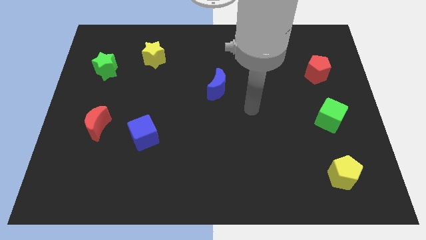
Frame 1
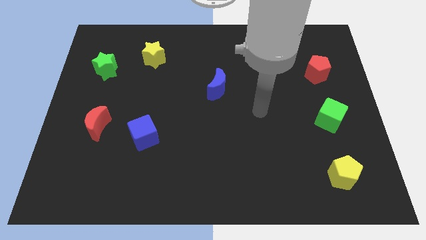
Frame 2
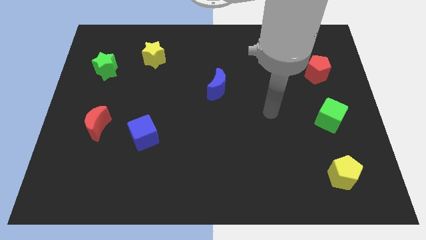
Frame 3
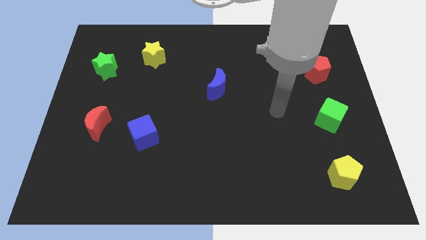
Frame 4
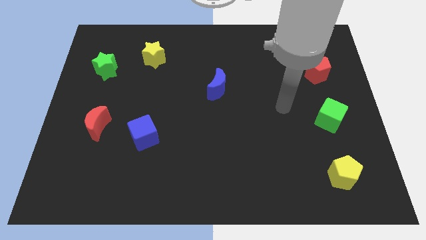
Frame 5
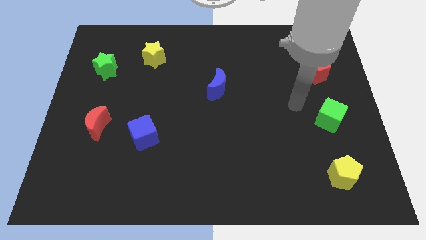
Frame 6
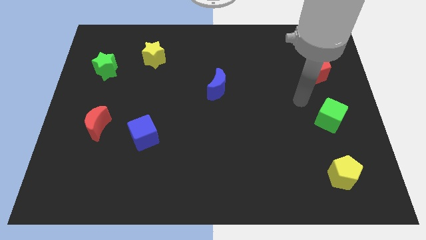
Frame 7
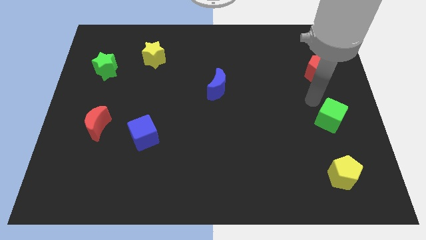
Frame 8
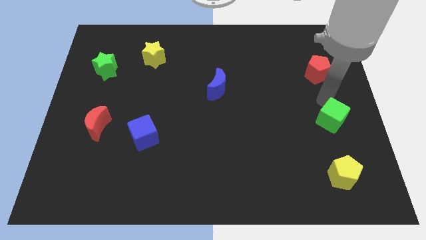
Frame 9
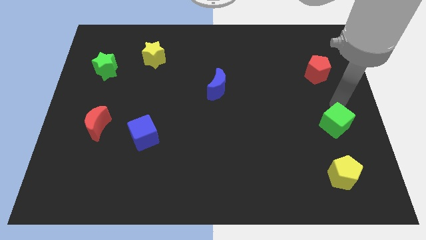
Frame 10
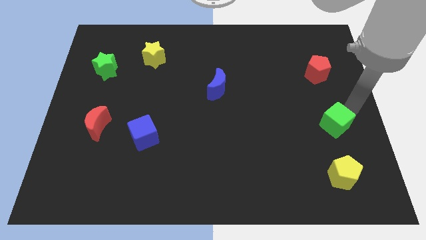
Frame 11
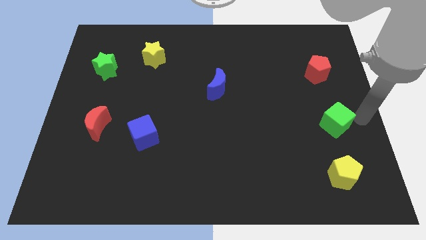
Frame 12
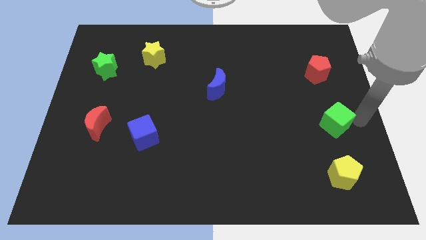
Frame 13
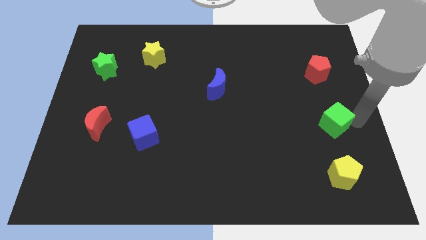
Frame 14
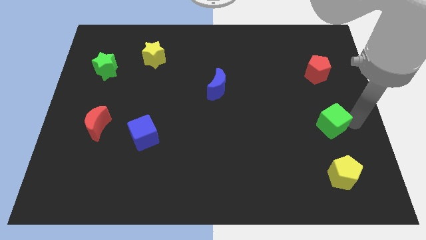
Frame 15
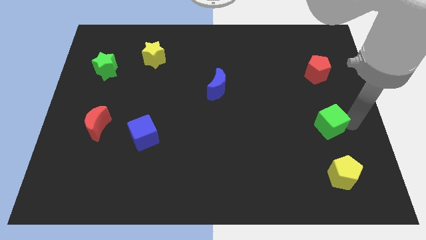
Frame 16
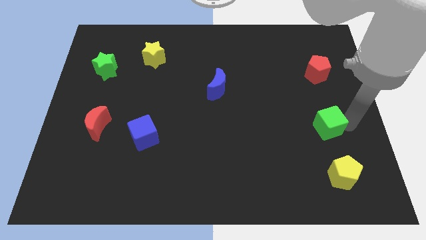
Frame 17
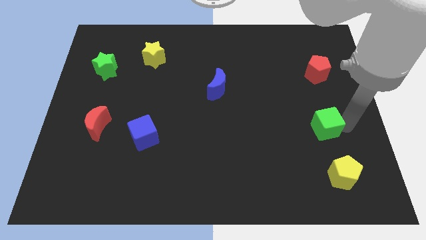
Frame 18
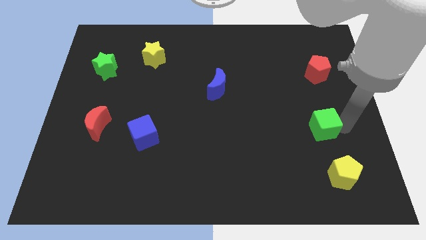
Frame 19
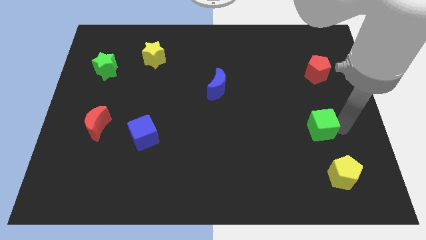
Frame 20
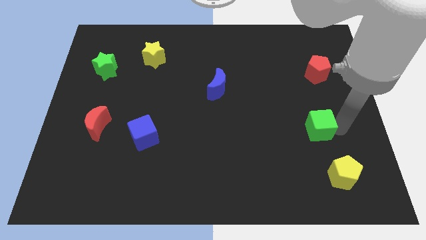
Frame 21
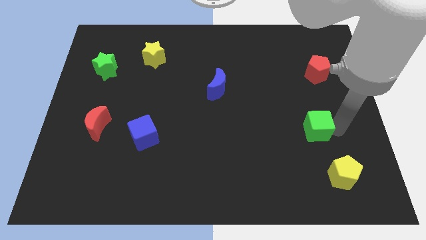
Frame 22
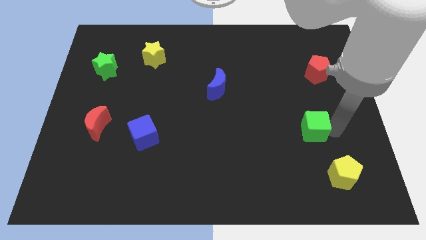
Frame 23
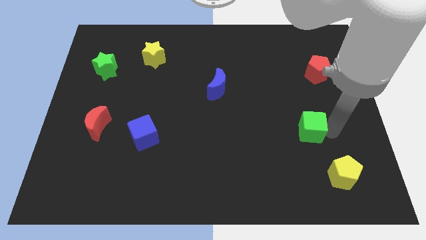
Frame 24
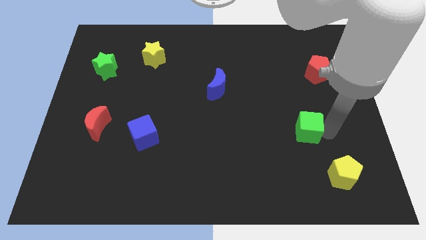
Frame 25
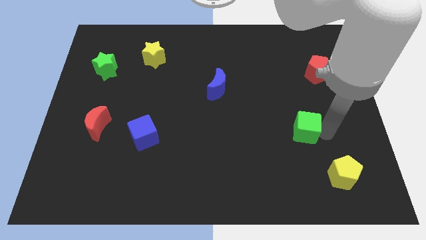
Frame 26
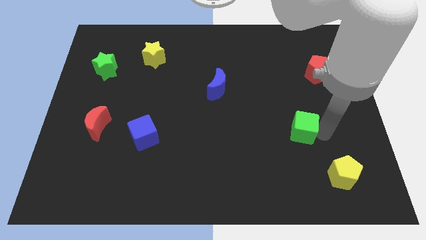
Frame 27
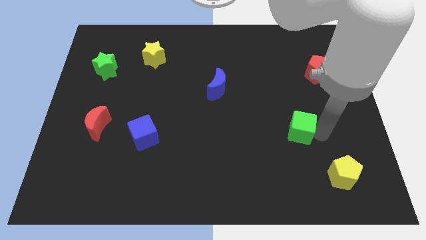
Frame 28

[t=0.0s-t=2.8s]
move the green cube a bit left

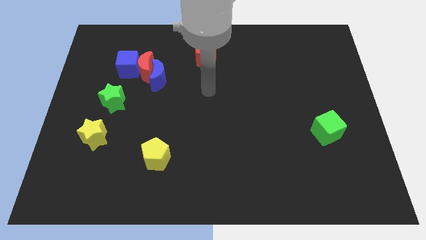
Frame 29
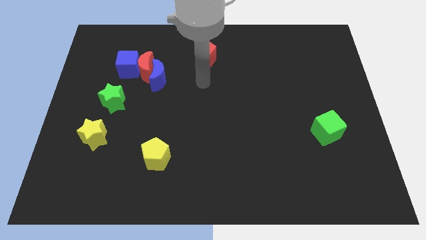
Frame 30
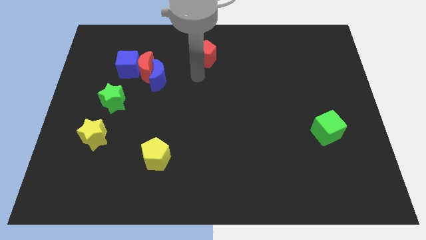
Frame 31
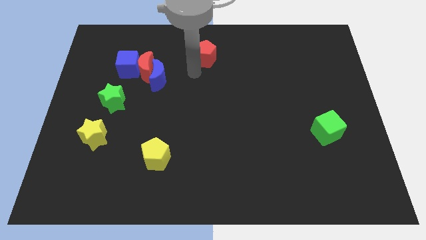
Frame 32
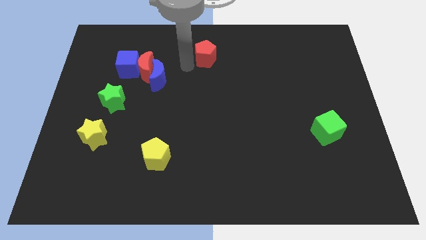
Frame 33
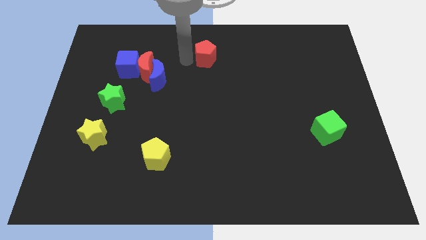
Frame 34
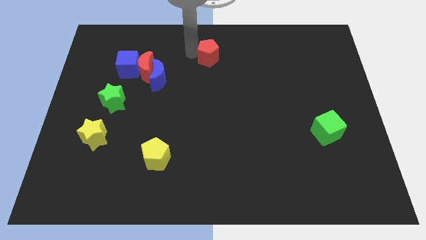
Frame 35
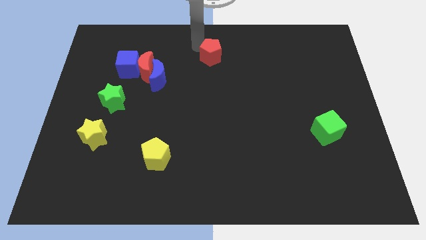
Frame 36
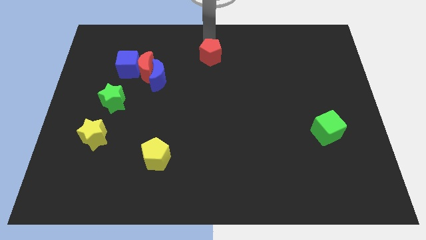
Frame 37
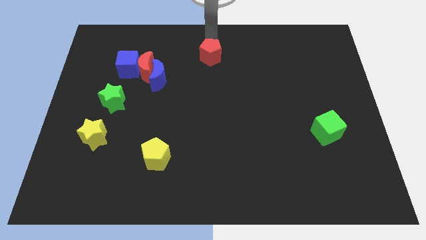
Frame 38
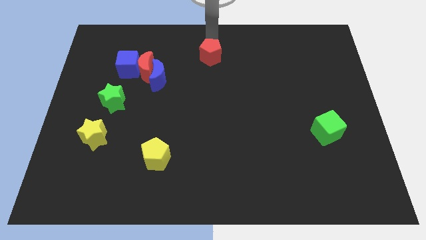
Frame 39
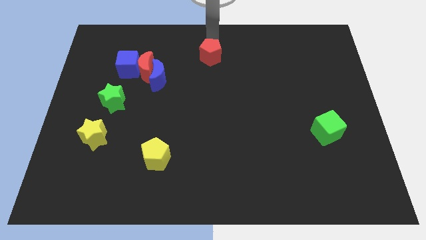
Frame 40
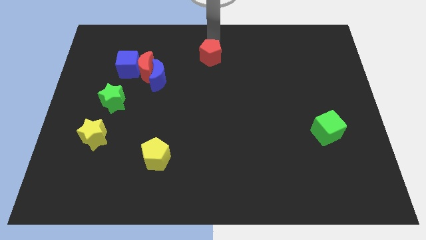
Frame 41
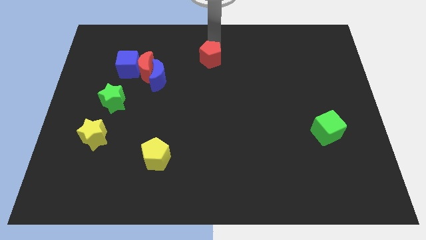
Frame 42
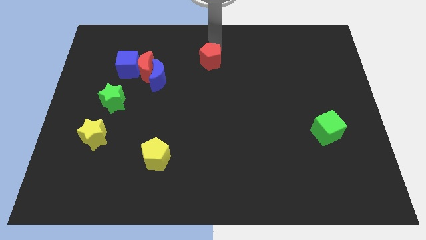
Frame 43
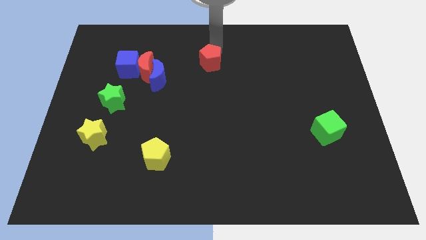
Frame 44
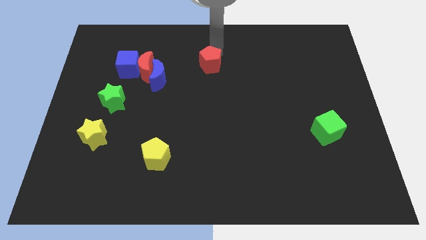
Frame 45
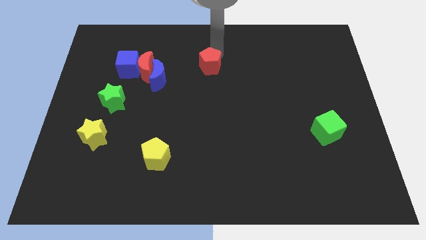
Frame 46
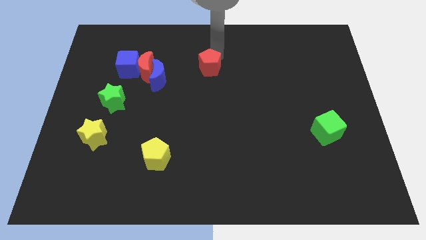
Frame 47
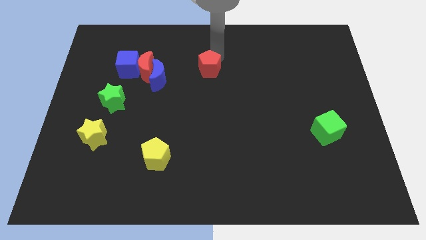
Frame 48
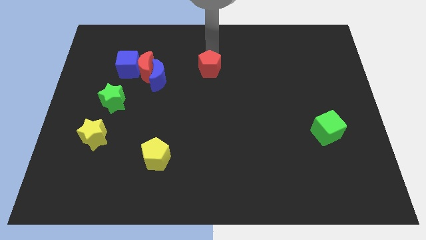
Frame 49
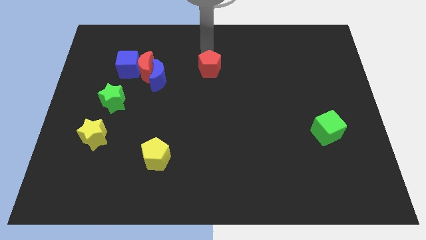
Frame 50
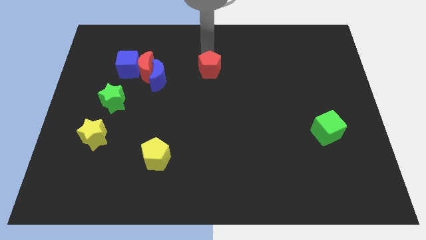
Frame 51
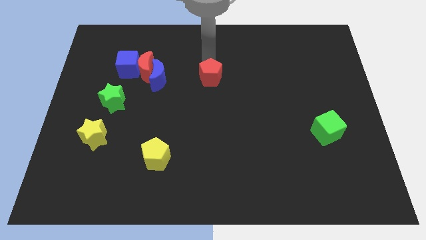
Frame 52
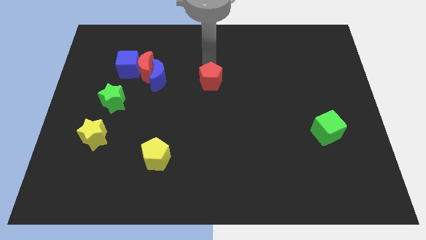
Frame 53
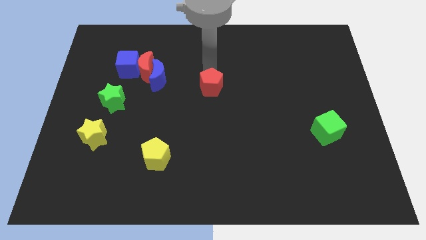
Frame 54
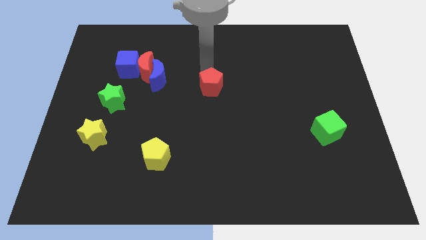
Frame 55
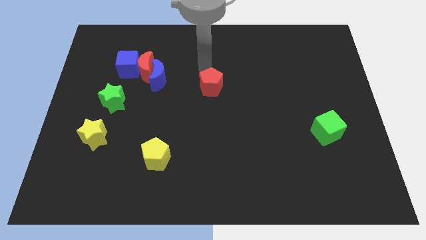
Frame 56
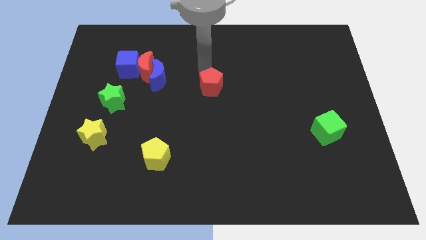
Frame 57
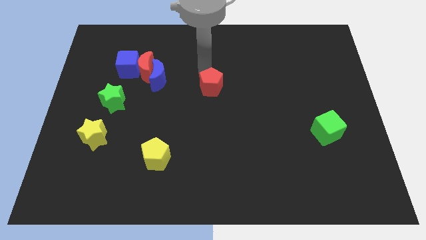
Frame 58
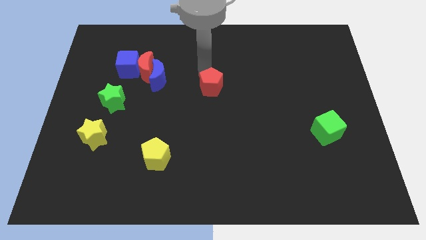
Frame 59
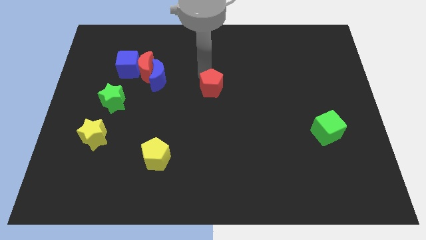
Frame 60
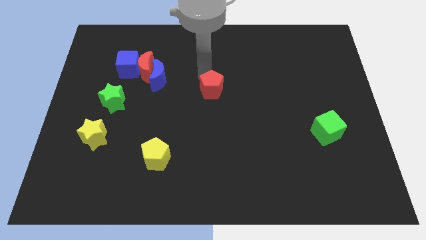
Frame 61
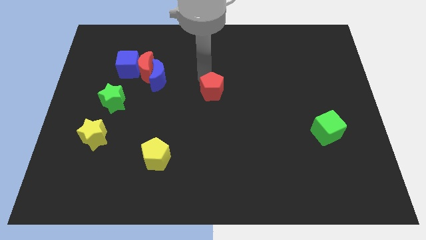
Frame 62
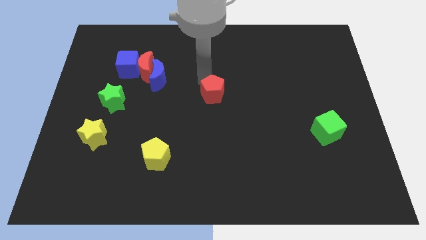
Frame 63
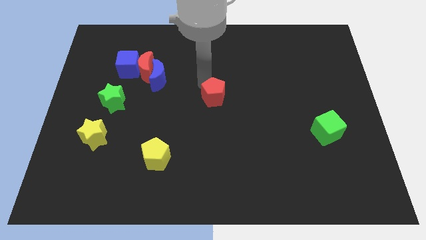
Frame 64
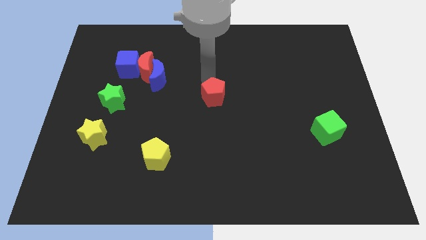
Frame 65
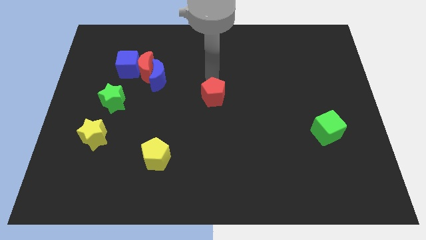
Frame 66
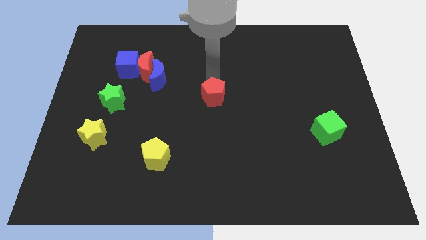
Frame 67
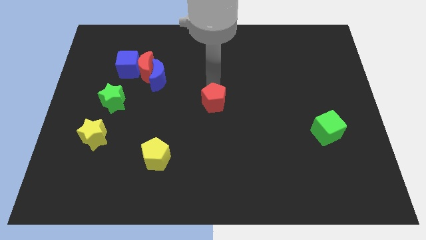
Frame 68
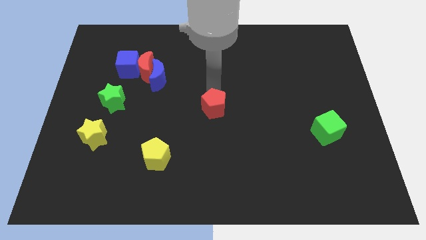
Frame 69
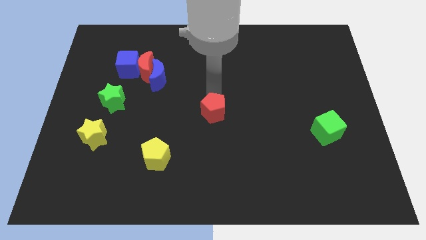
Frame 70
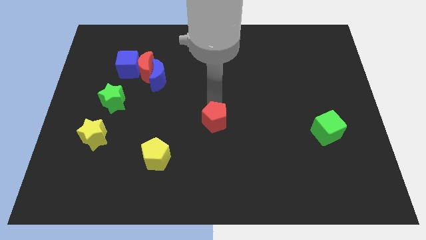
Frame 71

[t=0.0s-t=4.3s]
push the red pentagon down

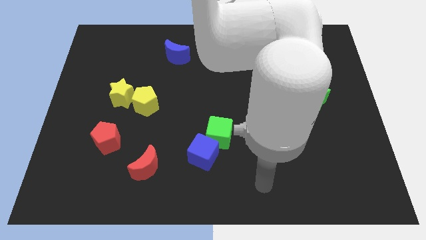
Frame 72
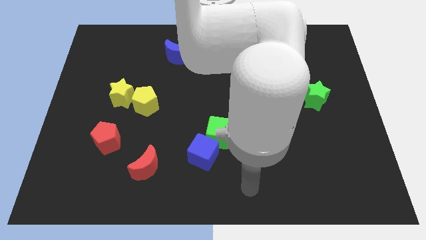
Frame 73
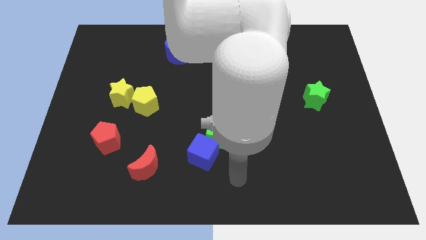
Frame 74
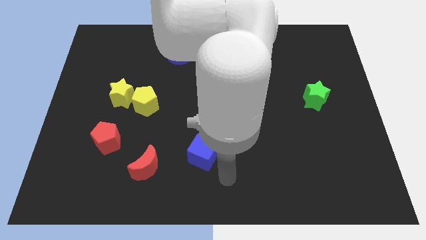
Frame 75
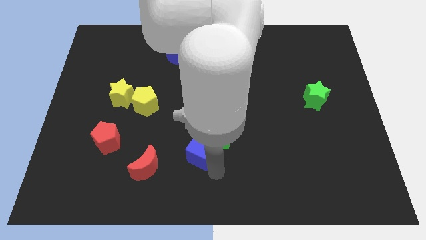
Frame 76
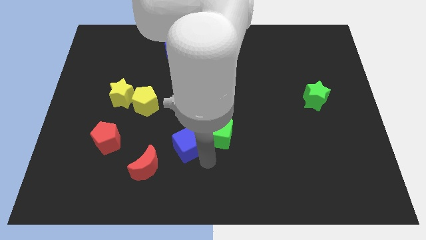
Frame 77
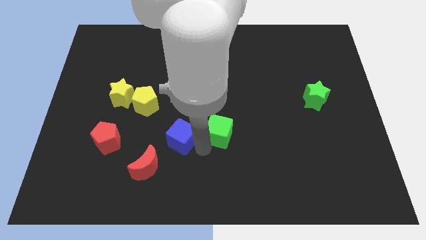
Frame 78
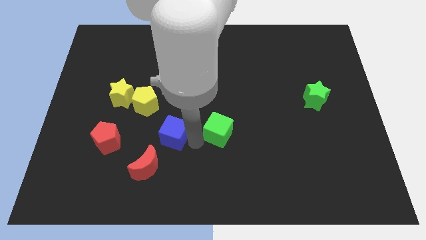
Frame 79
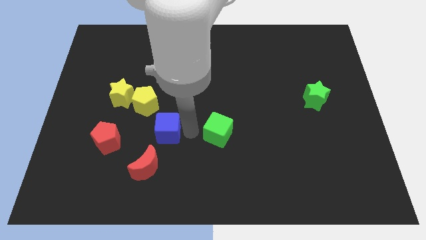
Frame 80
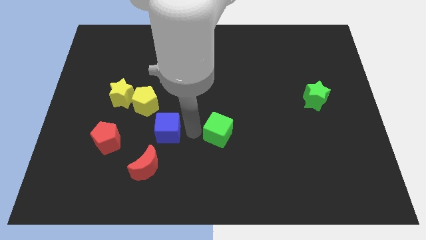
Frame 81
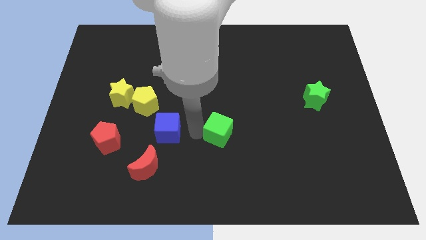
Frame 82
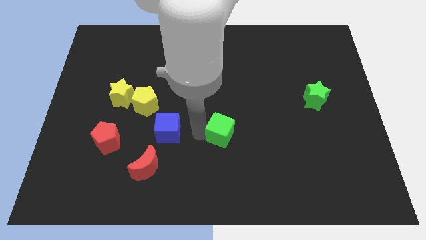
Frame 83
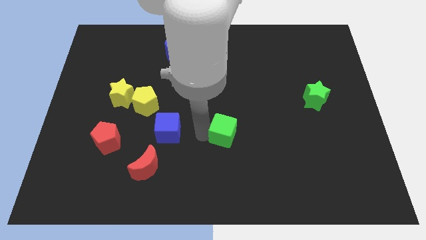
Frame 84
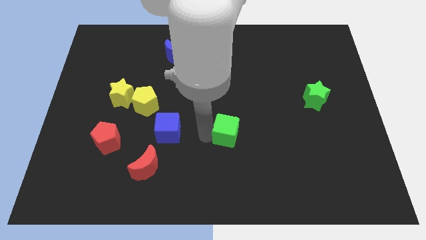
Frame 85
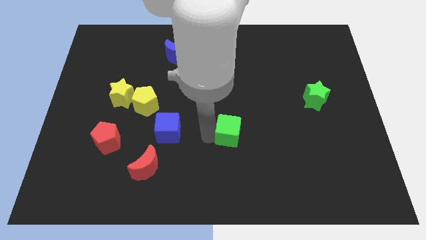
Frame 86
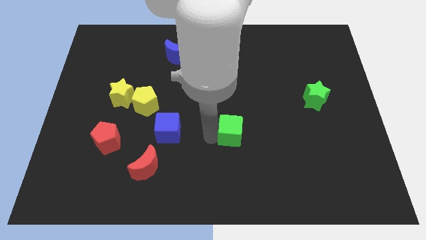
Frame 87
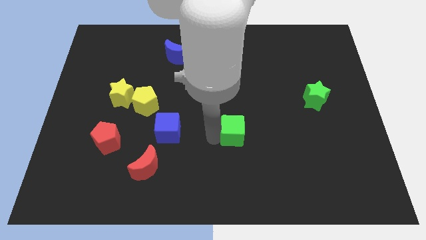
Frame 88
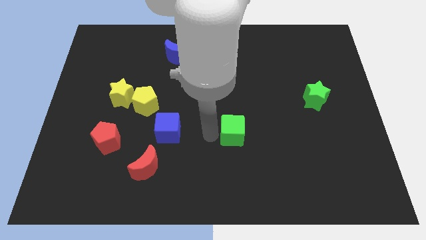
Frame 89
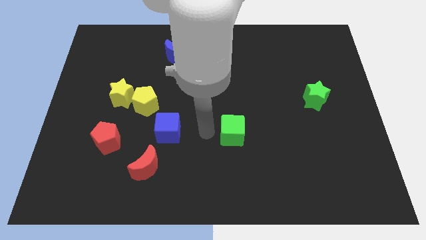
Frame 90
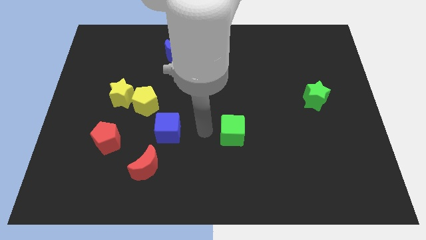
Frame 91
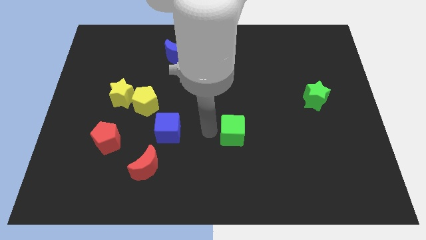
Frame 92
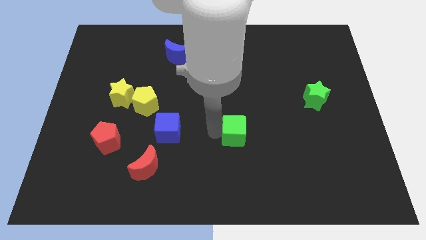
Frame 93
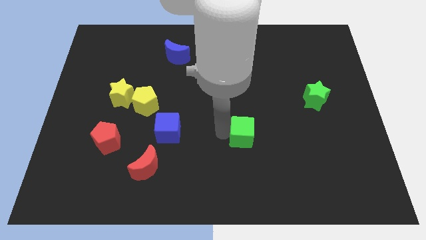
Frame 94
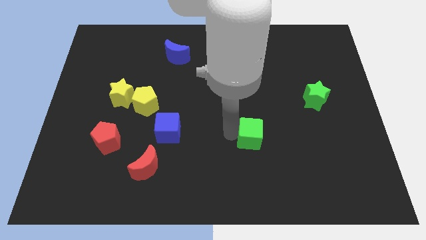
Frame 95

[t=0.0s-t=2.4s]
slide the green cube to the right a little
